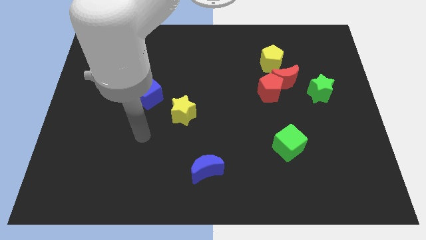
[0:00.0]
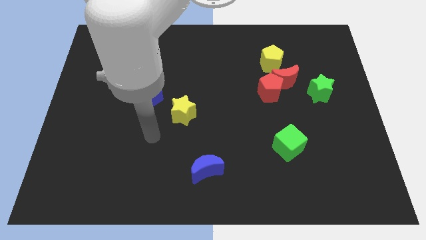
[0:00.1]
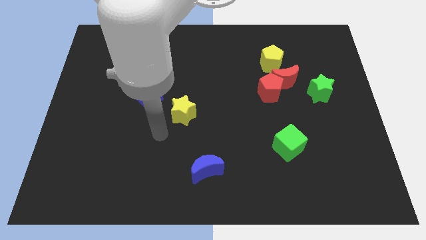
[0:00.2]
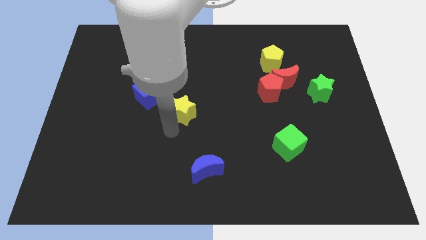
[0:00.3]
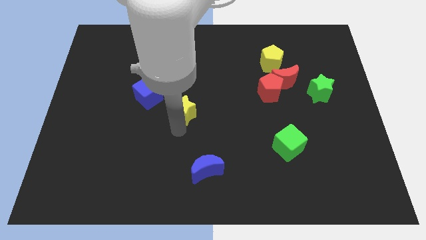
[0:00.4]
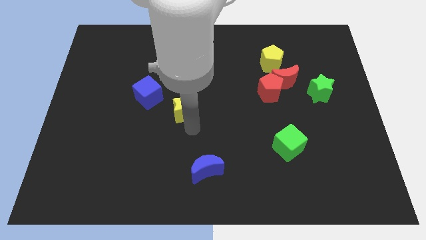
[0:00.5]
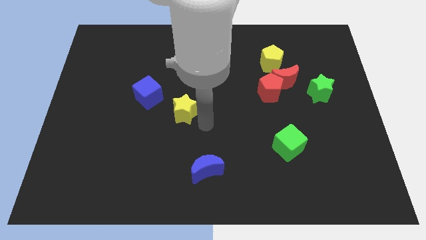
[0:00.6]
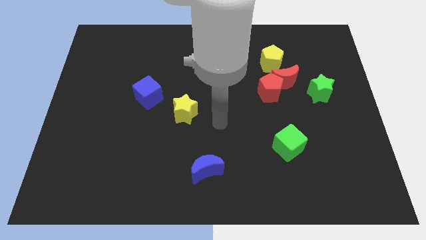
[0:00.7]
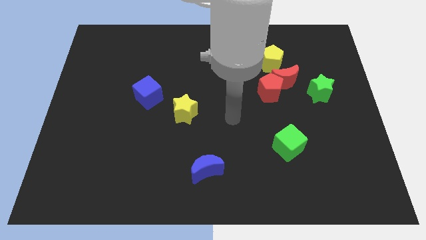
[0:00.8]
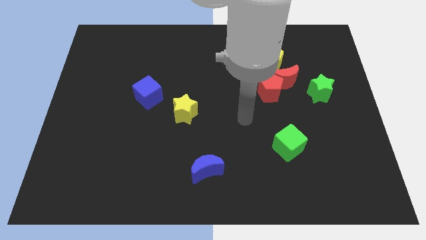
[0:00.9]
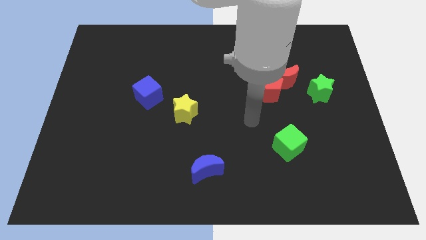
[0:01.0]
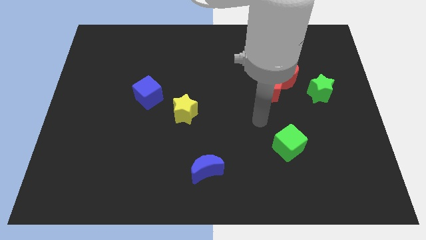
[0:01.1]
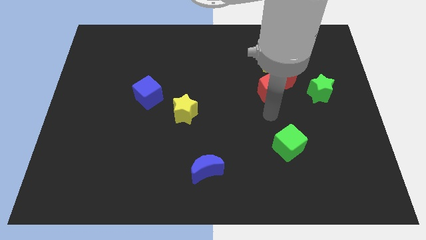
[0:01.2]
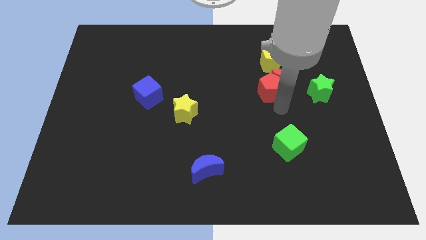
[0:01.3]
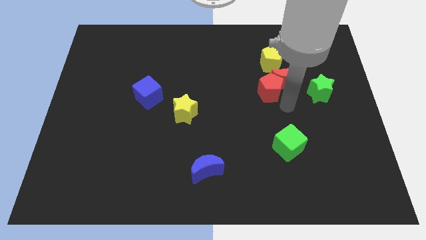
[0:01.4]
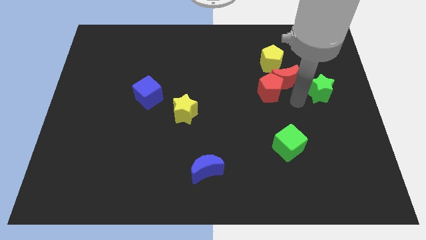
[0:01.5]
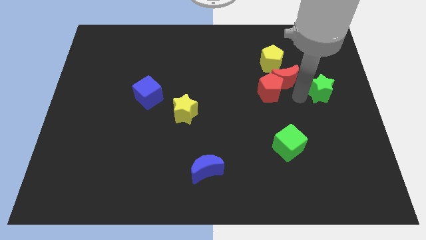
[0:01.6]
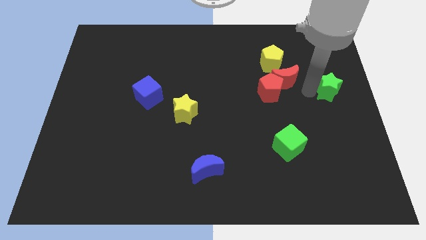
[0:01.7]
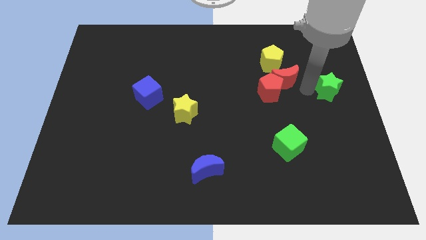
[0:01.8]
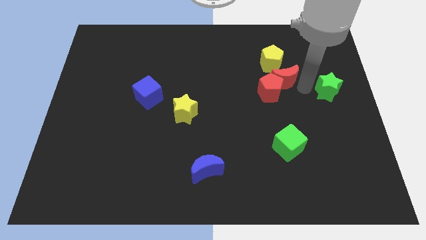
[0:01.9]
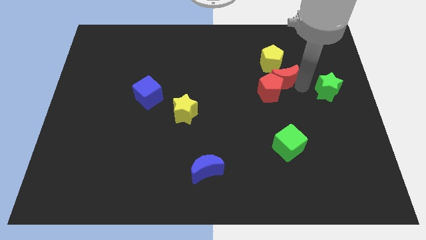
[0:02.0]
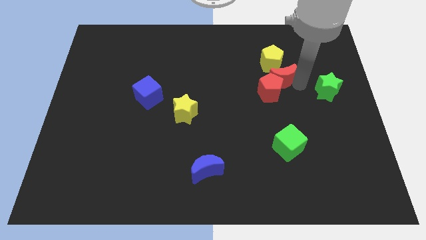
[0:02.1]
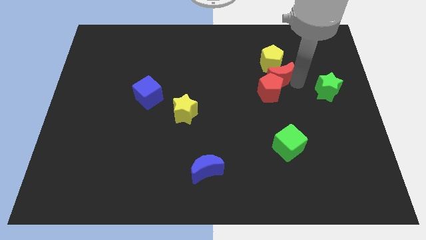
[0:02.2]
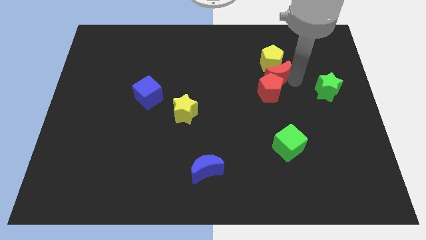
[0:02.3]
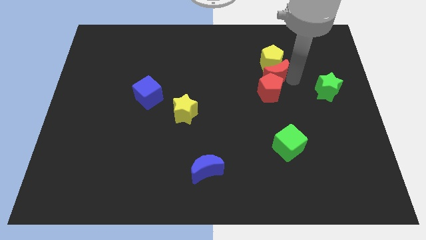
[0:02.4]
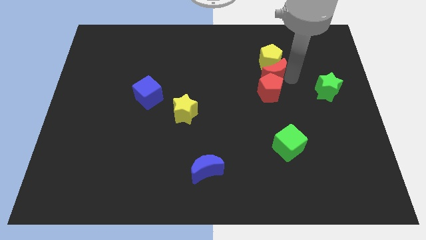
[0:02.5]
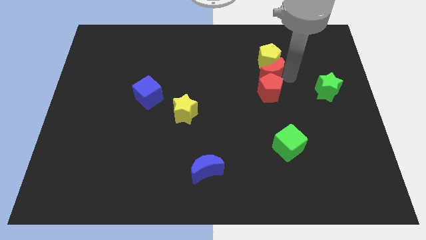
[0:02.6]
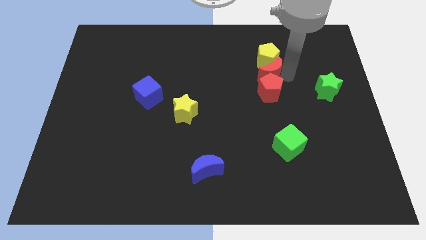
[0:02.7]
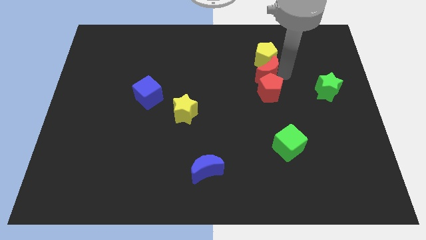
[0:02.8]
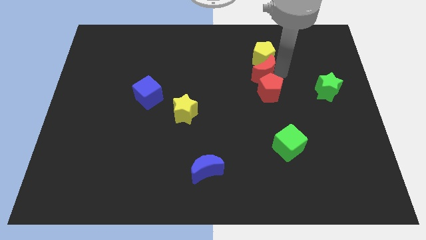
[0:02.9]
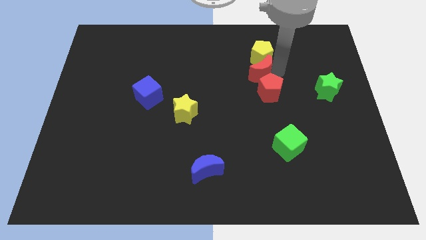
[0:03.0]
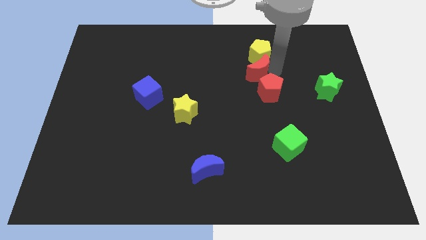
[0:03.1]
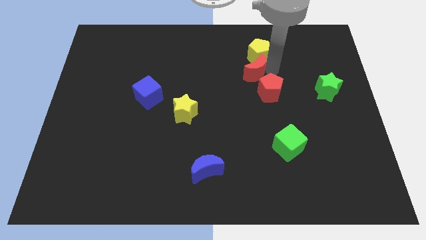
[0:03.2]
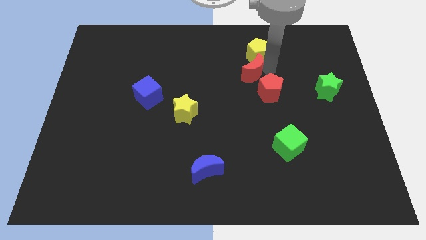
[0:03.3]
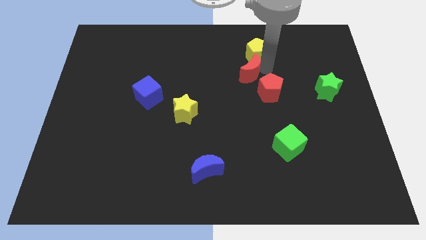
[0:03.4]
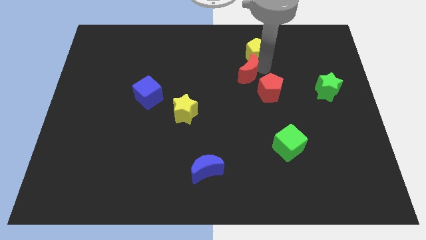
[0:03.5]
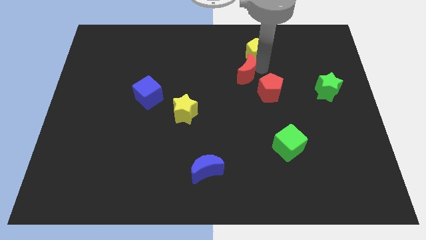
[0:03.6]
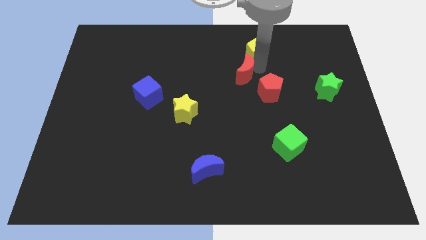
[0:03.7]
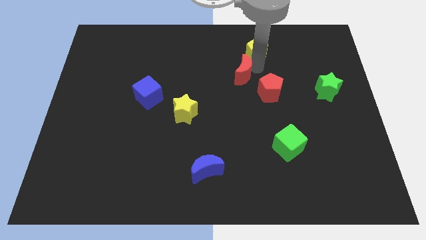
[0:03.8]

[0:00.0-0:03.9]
pull the red moon apart from the group of blocks

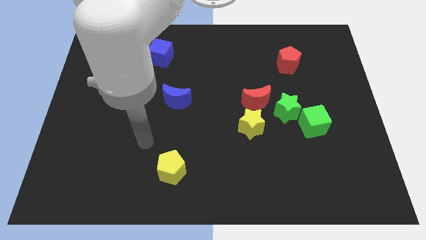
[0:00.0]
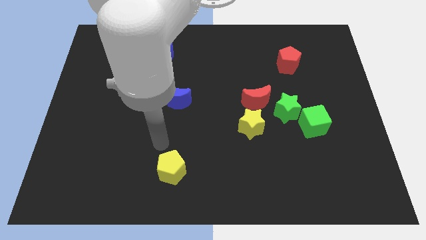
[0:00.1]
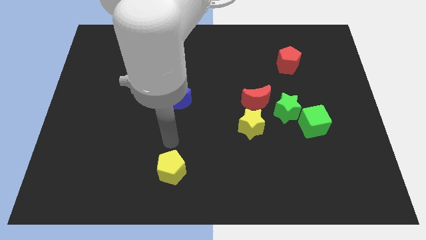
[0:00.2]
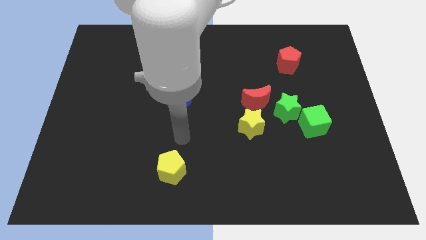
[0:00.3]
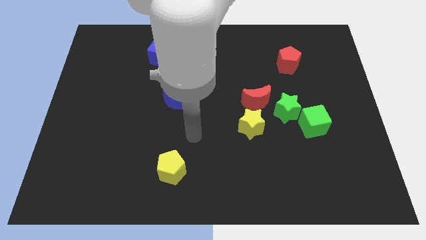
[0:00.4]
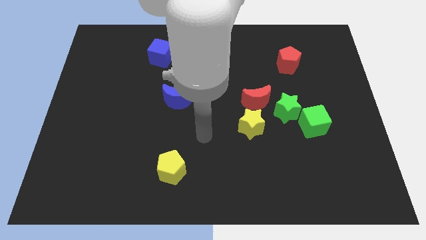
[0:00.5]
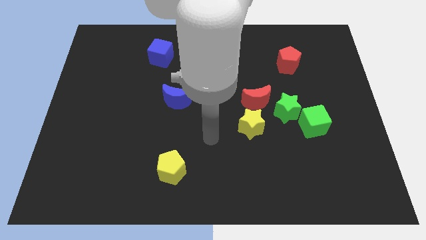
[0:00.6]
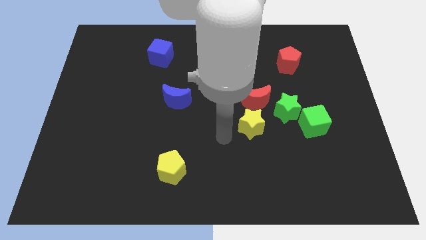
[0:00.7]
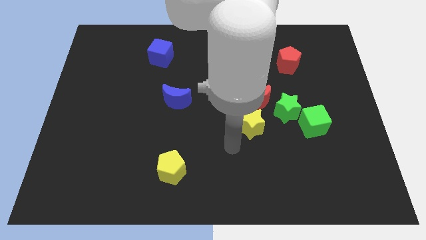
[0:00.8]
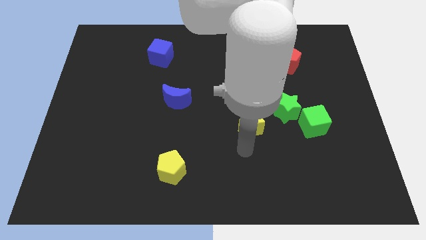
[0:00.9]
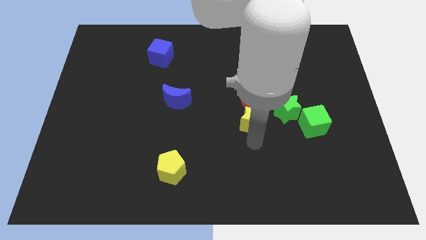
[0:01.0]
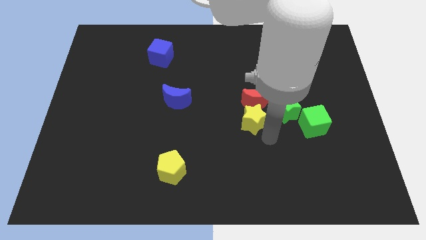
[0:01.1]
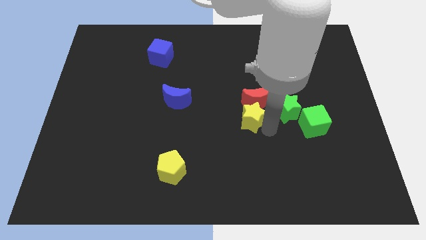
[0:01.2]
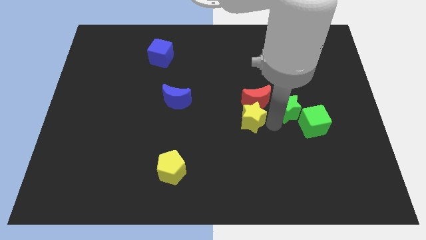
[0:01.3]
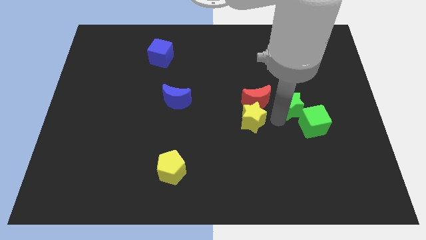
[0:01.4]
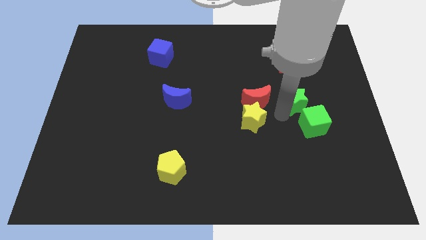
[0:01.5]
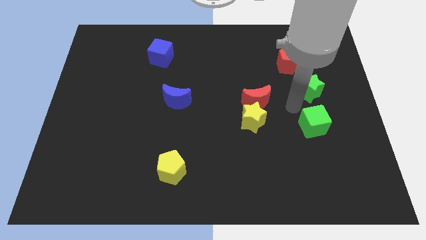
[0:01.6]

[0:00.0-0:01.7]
pull the green cube apart from the green star

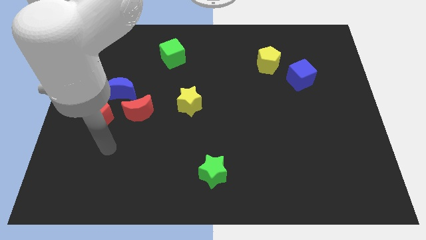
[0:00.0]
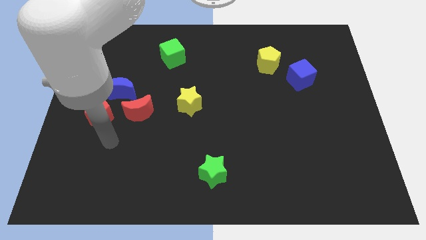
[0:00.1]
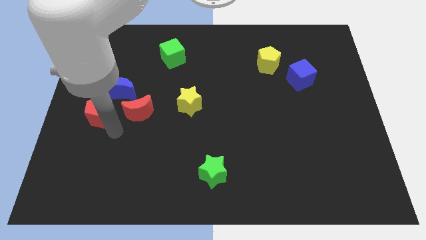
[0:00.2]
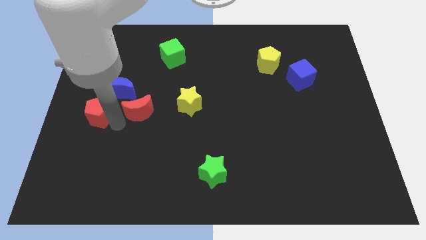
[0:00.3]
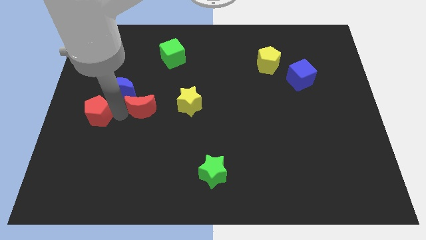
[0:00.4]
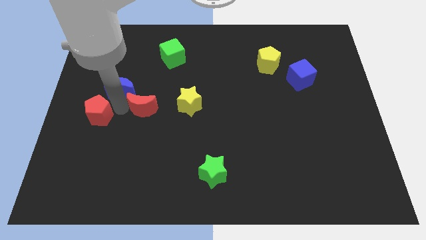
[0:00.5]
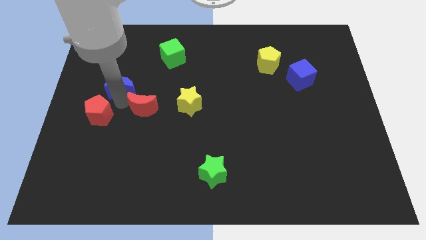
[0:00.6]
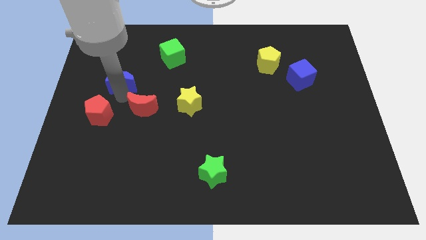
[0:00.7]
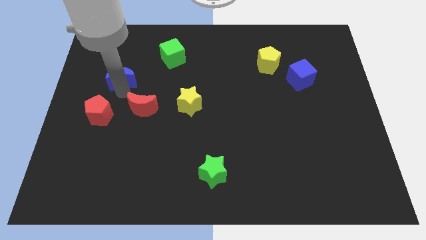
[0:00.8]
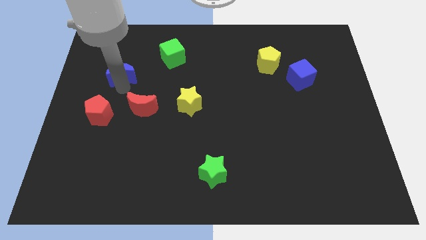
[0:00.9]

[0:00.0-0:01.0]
separate the blue moon from the red moon and red pentagon

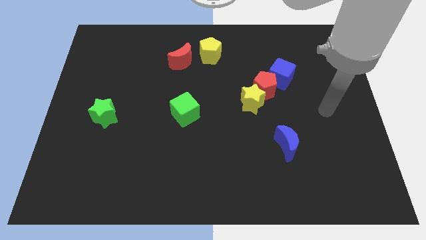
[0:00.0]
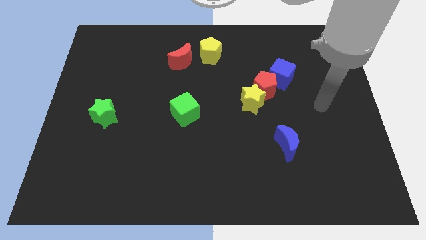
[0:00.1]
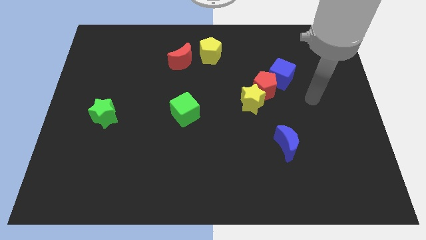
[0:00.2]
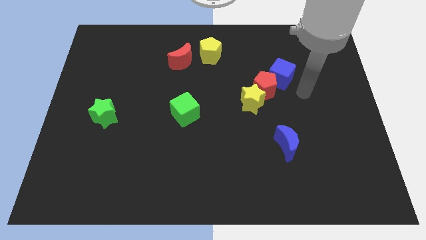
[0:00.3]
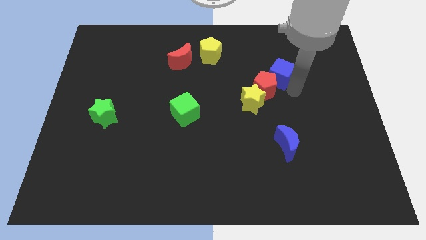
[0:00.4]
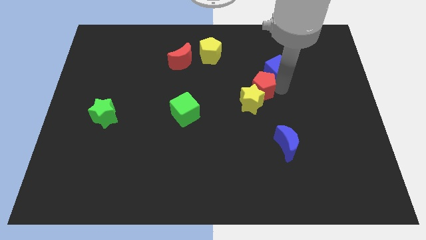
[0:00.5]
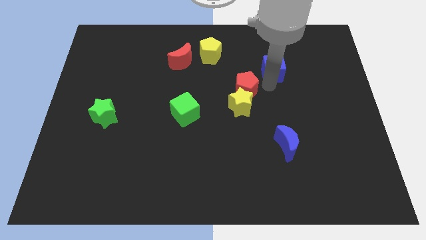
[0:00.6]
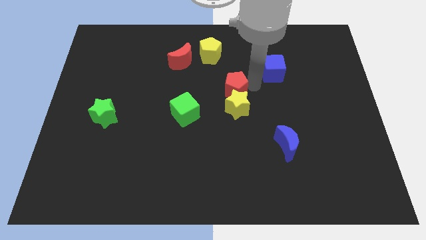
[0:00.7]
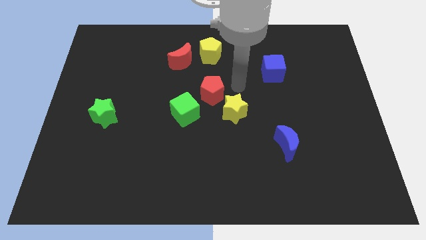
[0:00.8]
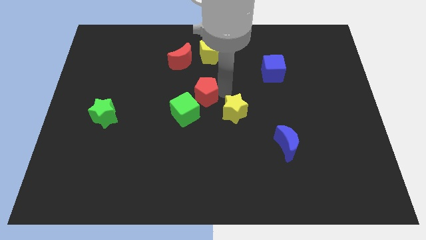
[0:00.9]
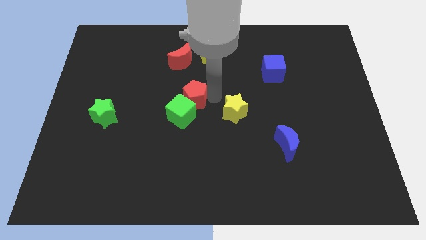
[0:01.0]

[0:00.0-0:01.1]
pull the yellow star apart from the red pentagon

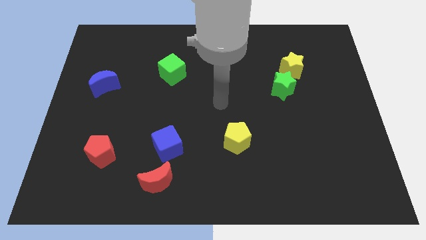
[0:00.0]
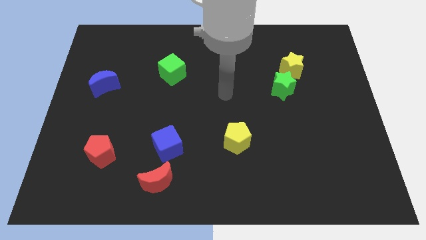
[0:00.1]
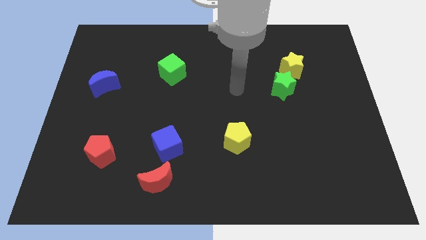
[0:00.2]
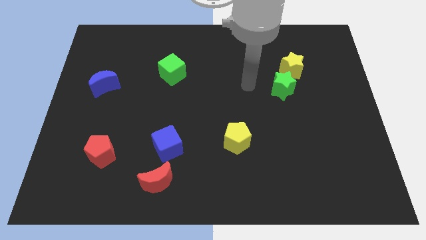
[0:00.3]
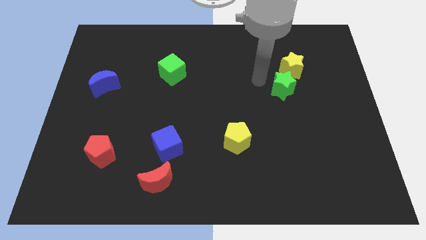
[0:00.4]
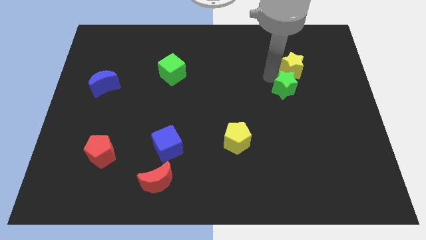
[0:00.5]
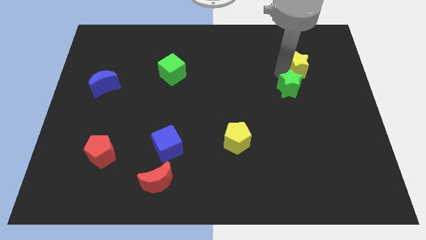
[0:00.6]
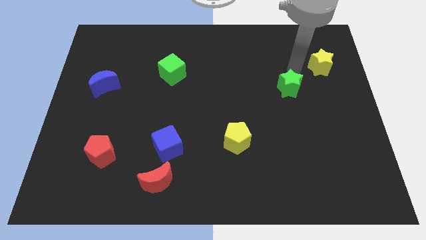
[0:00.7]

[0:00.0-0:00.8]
move the green star away from the yellow star

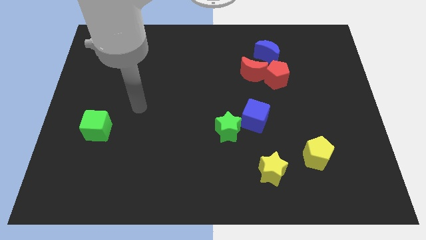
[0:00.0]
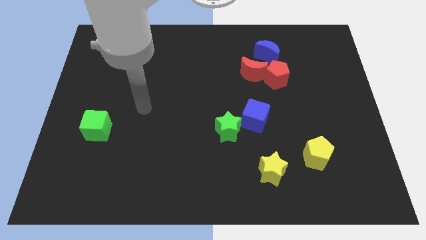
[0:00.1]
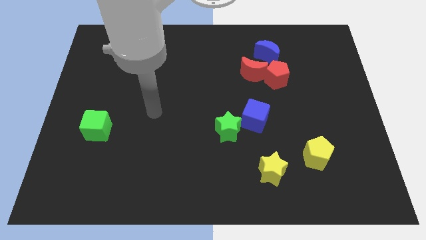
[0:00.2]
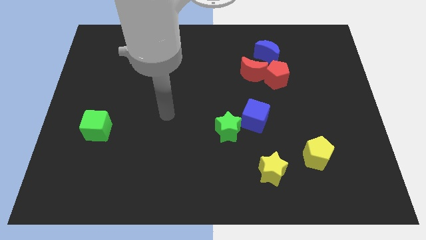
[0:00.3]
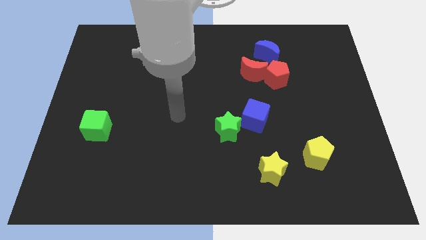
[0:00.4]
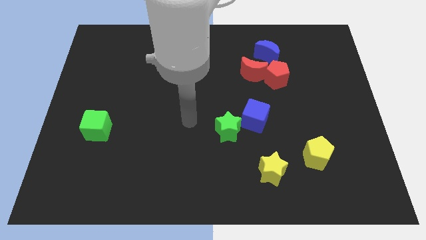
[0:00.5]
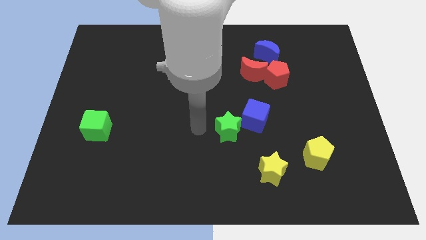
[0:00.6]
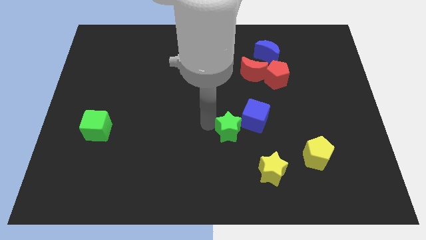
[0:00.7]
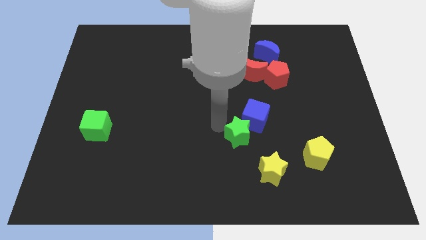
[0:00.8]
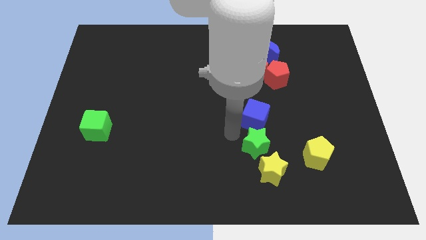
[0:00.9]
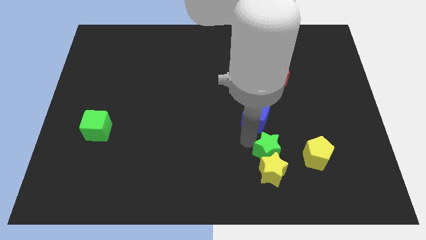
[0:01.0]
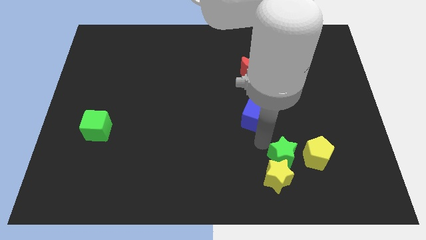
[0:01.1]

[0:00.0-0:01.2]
pull the blue cube apart from the green star
